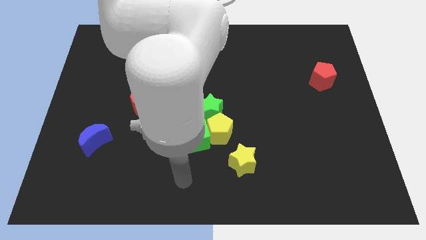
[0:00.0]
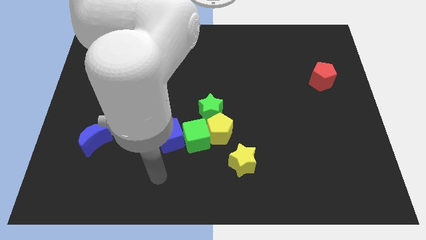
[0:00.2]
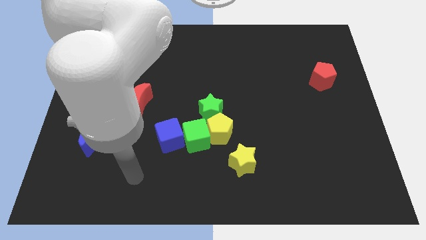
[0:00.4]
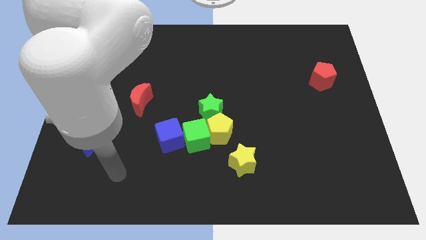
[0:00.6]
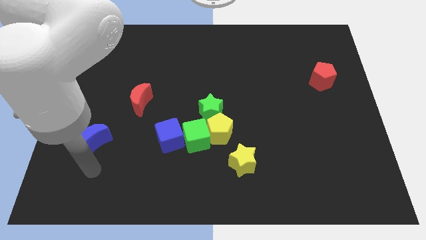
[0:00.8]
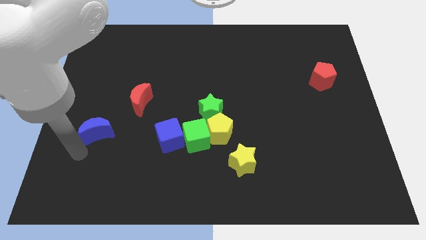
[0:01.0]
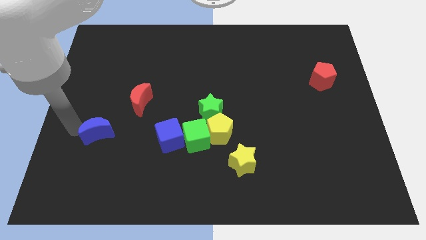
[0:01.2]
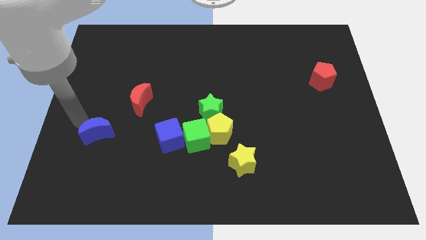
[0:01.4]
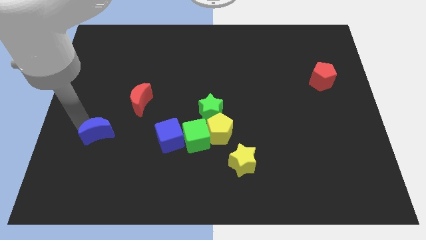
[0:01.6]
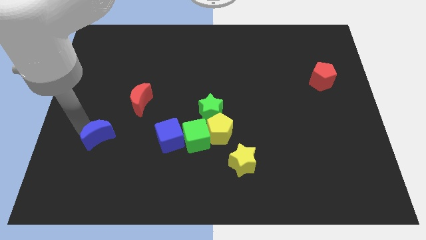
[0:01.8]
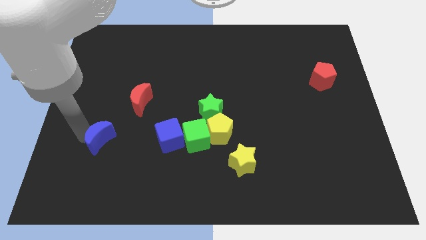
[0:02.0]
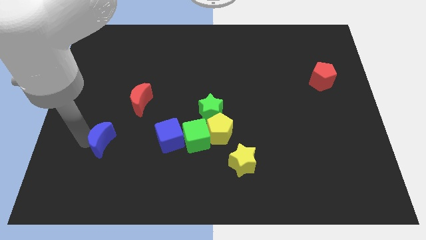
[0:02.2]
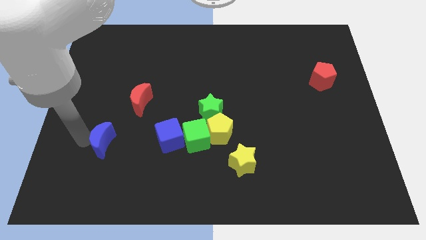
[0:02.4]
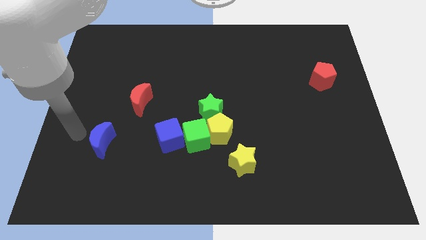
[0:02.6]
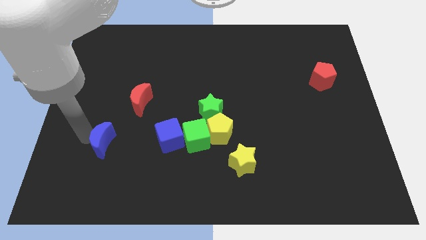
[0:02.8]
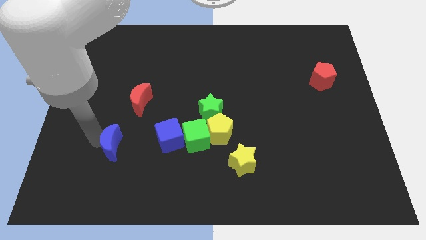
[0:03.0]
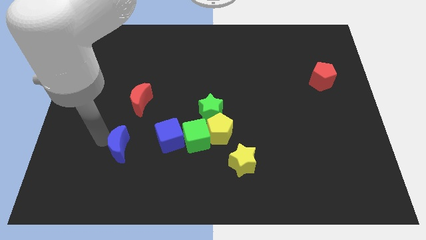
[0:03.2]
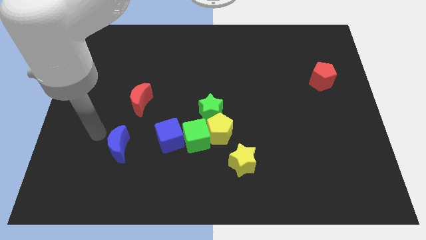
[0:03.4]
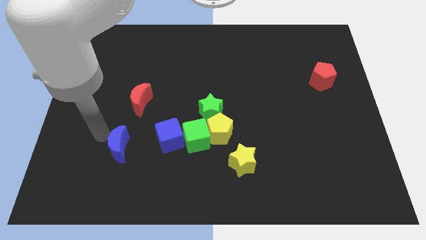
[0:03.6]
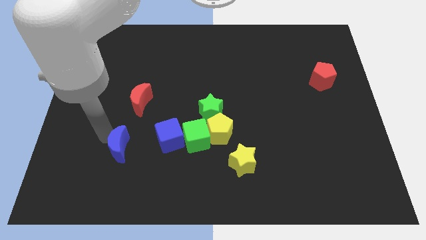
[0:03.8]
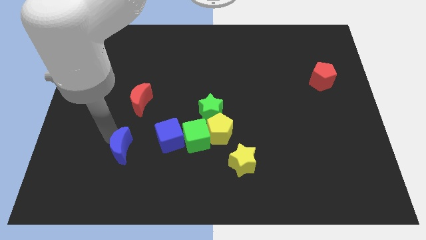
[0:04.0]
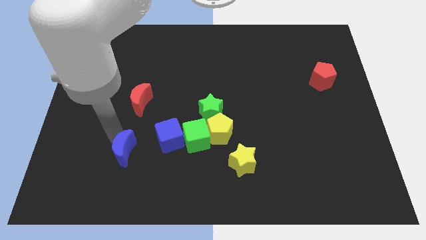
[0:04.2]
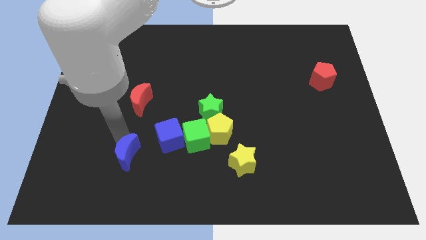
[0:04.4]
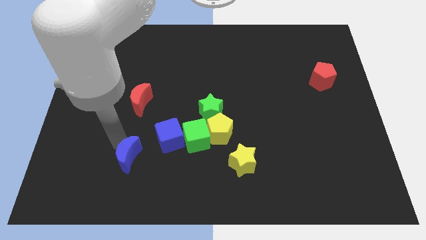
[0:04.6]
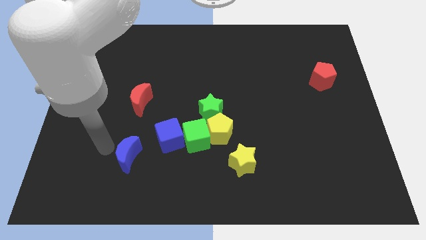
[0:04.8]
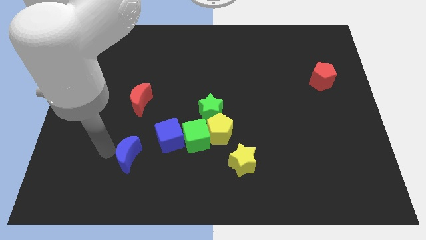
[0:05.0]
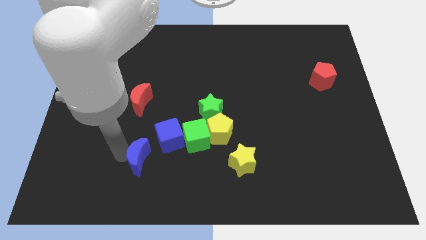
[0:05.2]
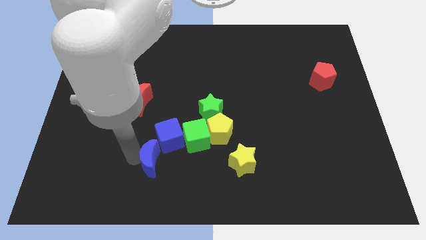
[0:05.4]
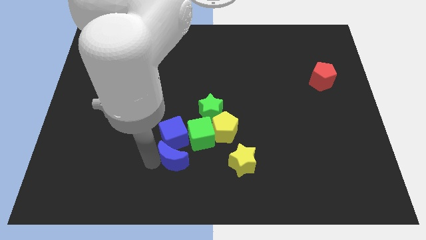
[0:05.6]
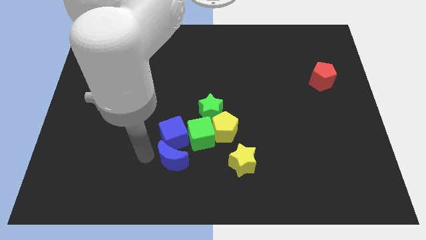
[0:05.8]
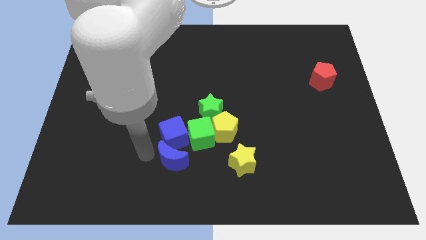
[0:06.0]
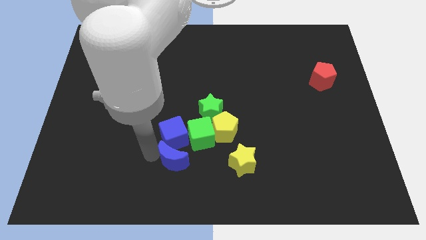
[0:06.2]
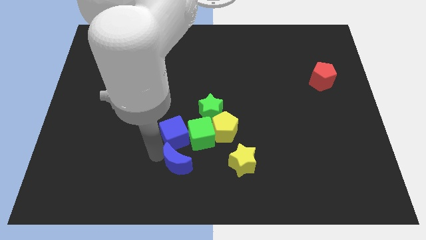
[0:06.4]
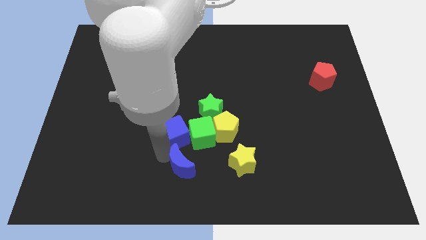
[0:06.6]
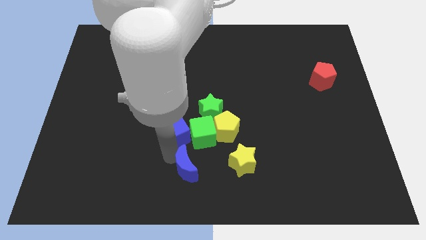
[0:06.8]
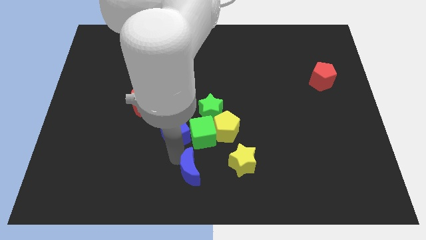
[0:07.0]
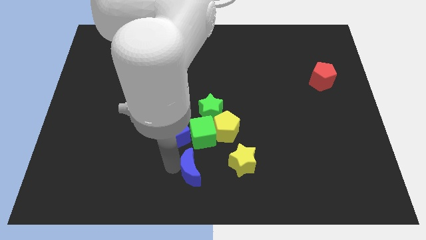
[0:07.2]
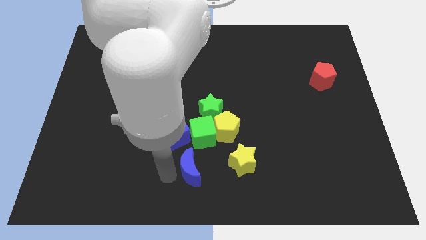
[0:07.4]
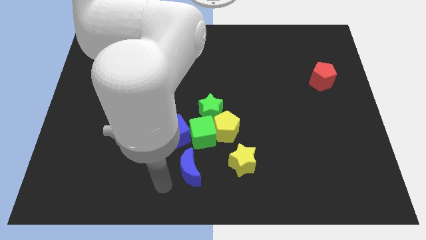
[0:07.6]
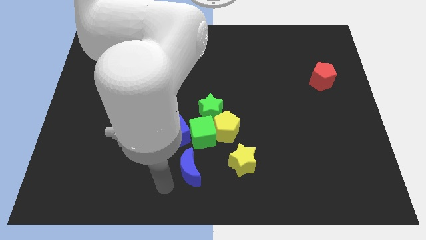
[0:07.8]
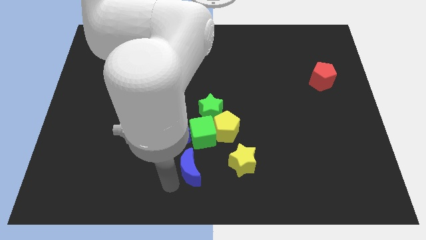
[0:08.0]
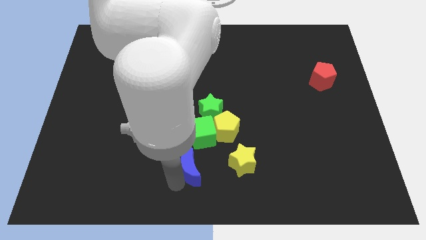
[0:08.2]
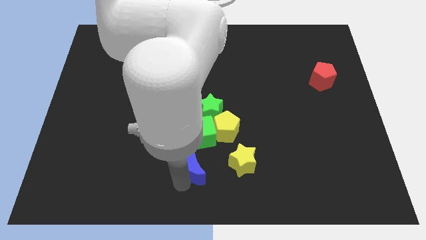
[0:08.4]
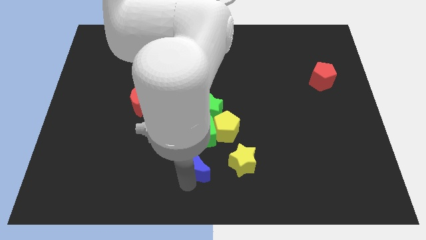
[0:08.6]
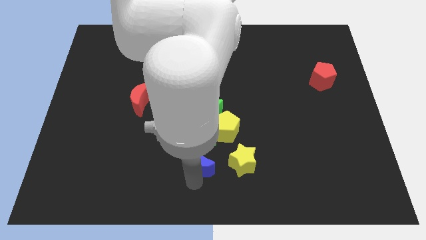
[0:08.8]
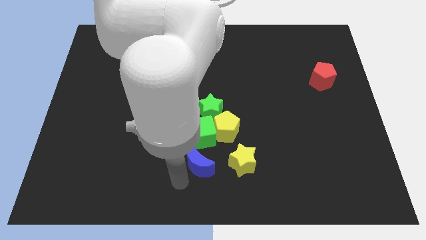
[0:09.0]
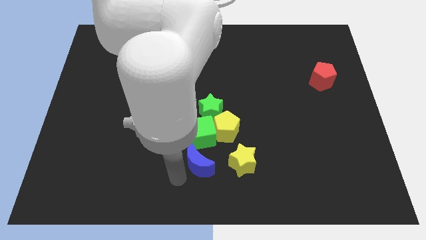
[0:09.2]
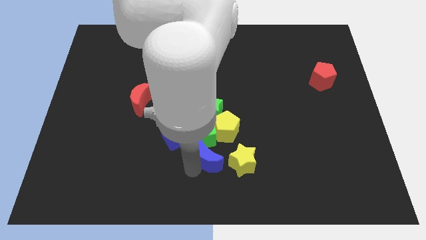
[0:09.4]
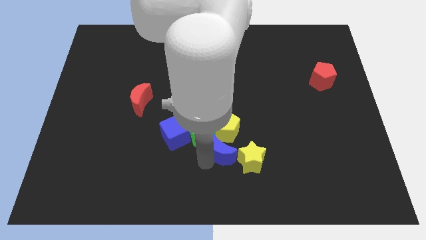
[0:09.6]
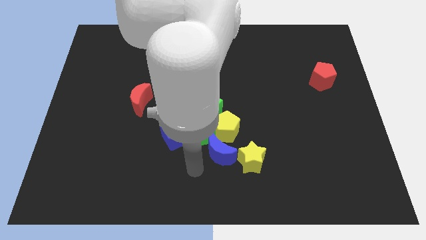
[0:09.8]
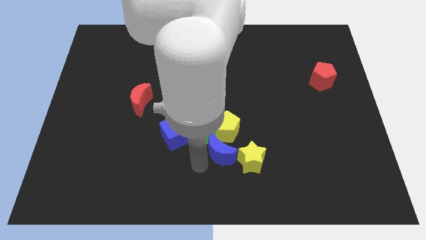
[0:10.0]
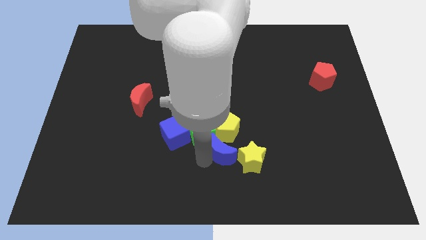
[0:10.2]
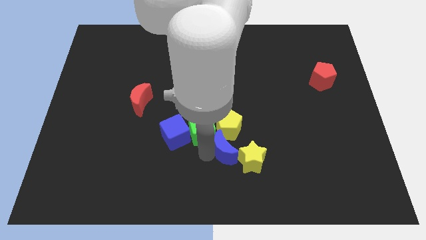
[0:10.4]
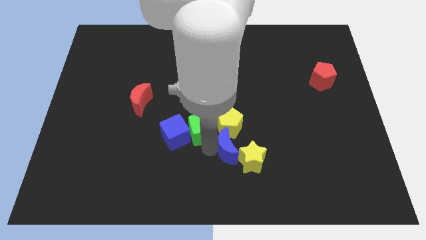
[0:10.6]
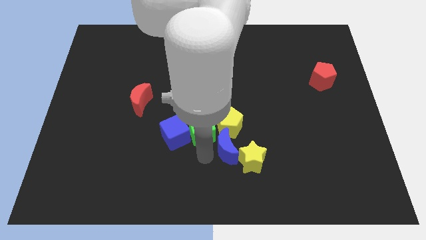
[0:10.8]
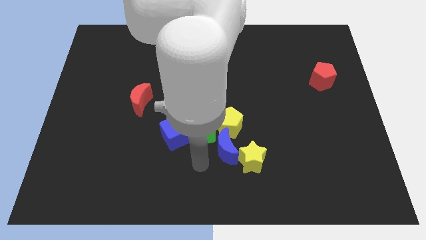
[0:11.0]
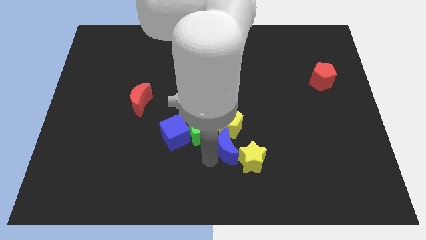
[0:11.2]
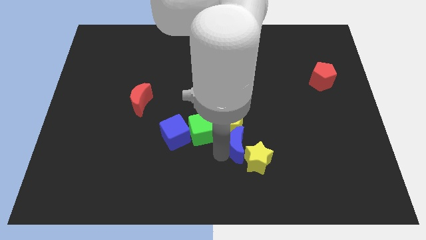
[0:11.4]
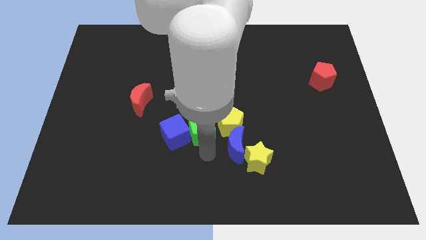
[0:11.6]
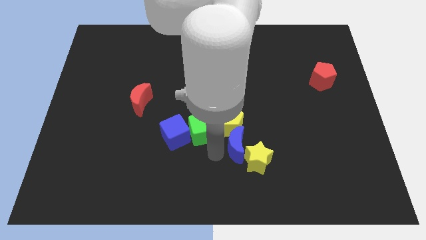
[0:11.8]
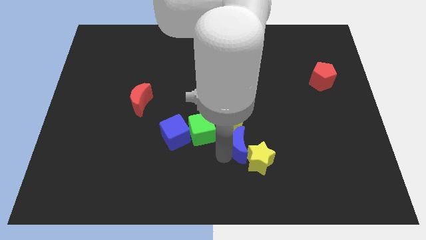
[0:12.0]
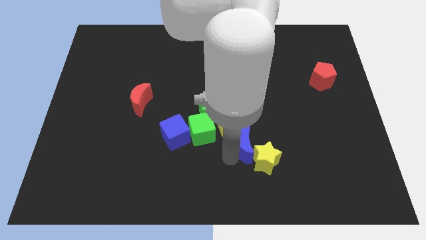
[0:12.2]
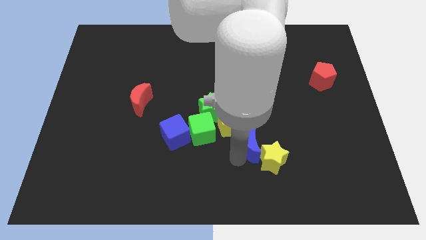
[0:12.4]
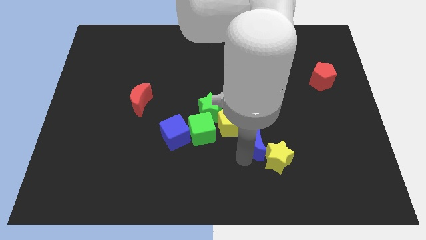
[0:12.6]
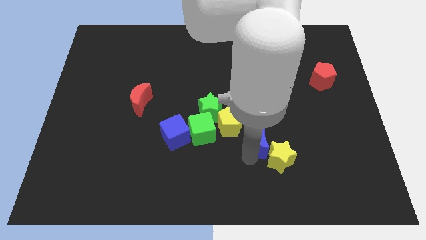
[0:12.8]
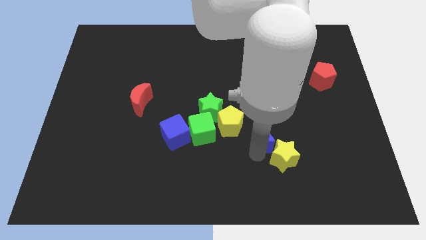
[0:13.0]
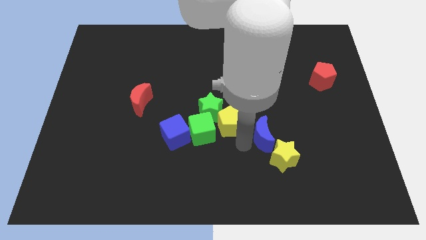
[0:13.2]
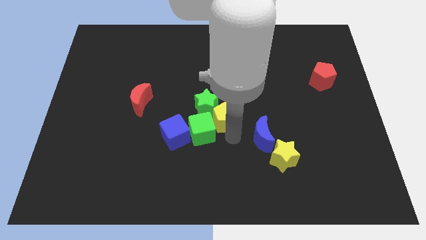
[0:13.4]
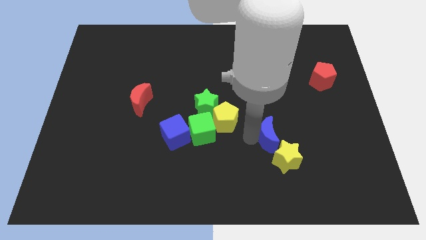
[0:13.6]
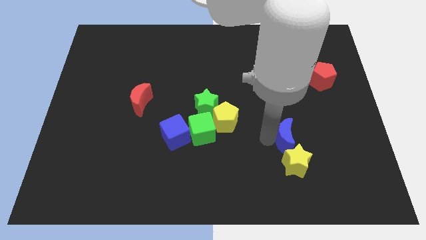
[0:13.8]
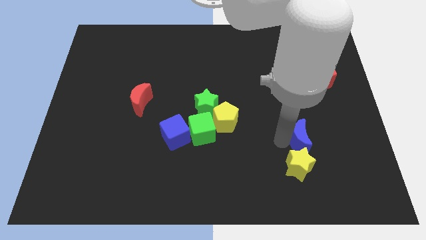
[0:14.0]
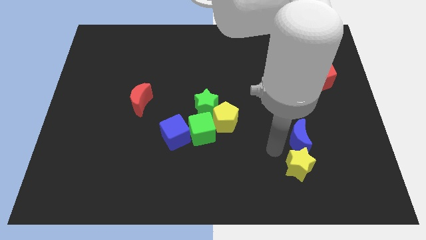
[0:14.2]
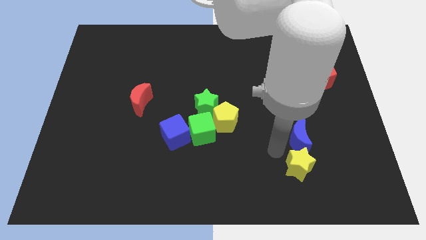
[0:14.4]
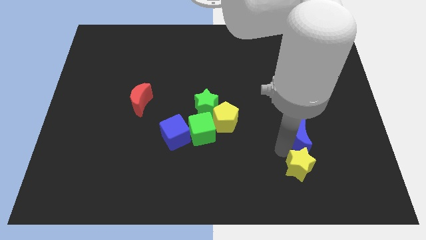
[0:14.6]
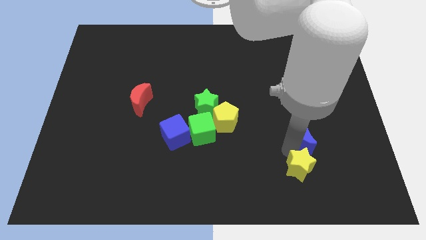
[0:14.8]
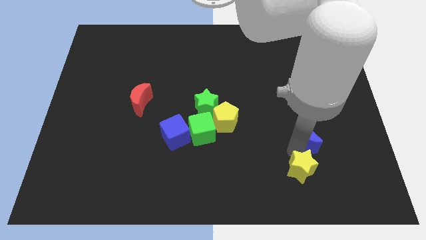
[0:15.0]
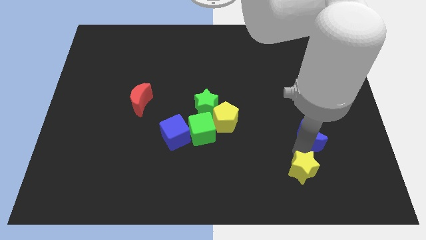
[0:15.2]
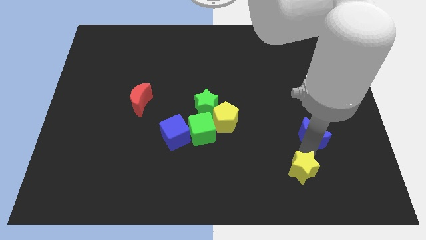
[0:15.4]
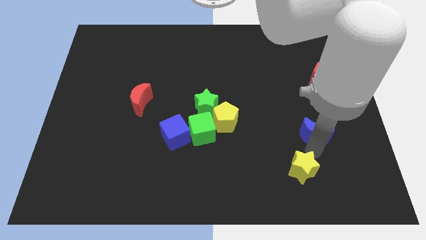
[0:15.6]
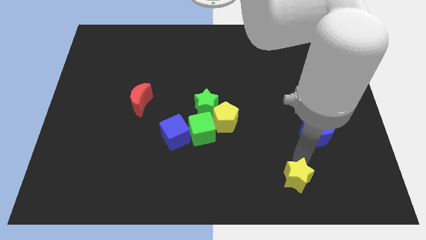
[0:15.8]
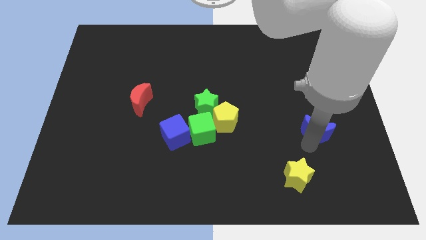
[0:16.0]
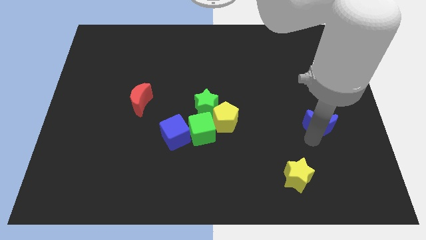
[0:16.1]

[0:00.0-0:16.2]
put the blue moon to the bottom of the red pentagon
